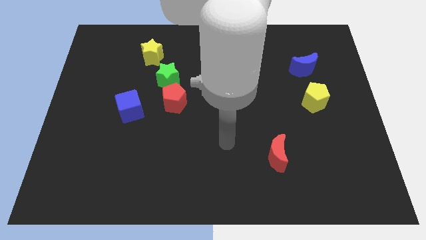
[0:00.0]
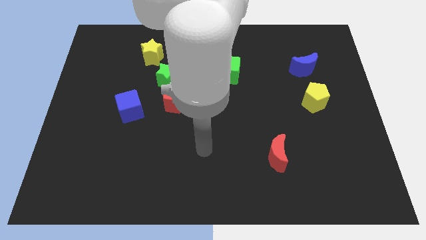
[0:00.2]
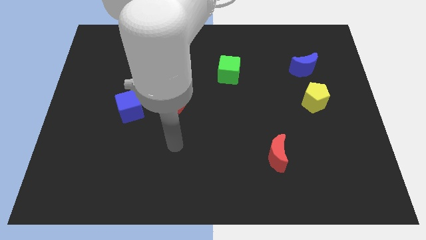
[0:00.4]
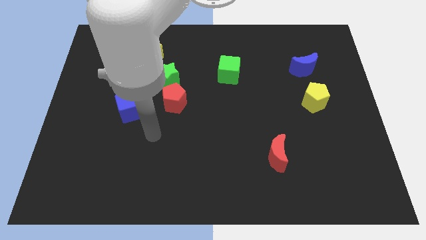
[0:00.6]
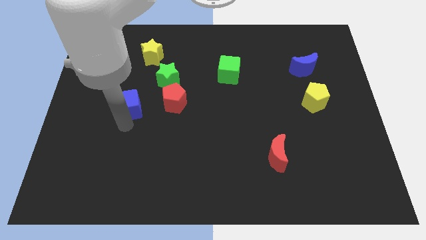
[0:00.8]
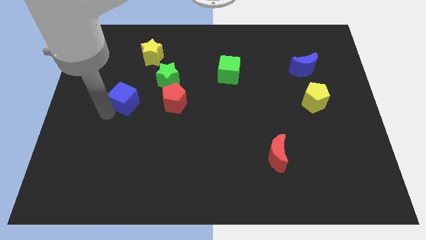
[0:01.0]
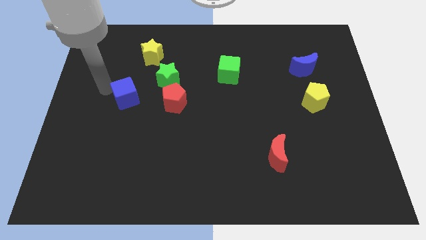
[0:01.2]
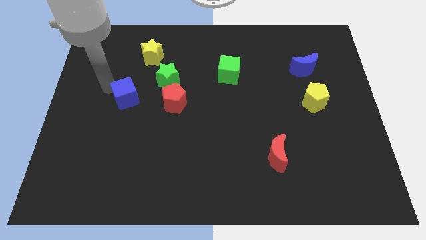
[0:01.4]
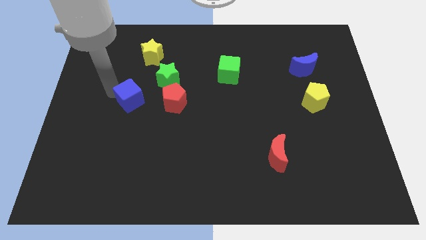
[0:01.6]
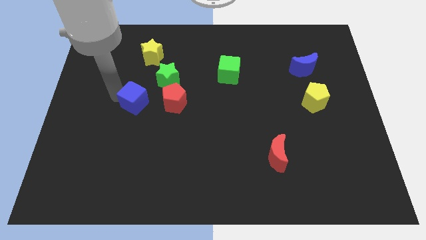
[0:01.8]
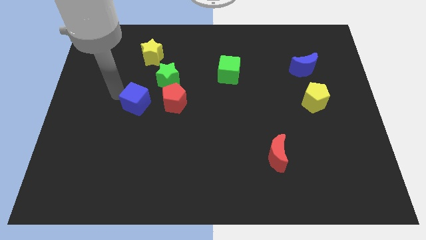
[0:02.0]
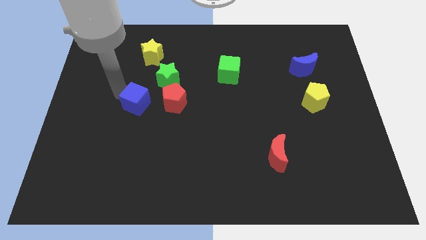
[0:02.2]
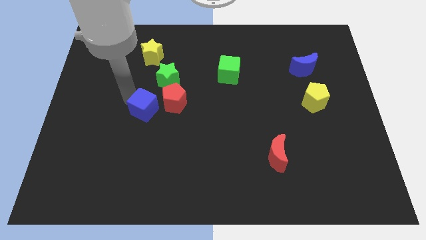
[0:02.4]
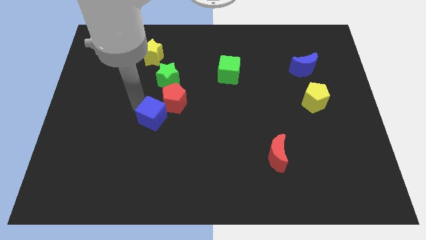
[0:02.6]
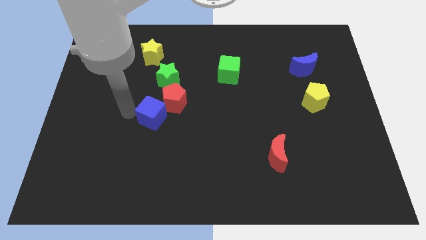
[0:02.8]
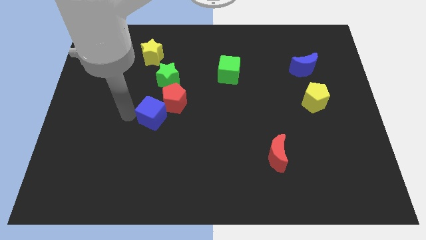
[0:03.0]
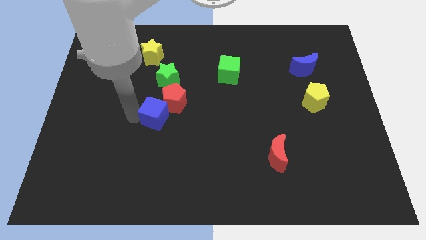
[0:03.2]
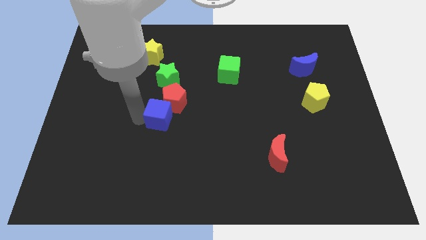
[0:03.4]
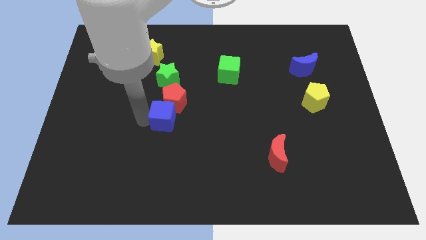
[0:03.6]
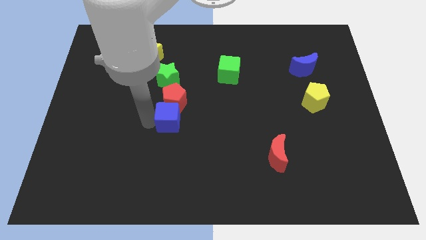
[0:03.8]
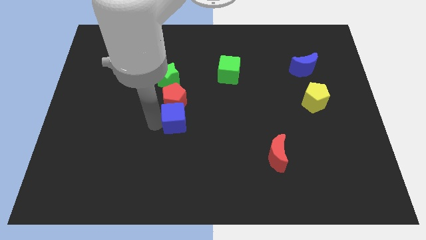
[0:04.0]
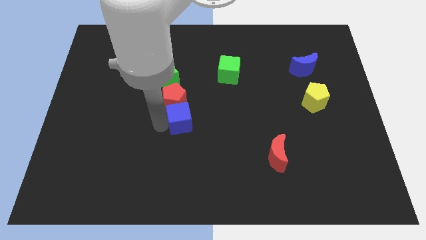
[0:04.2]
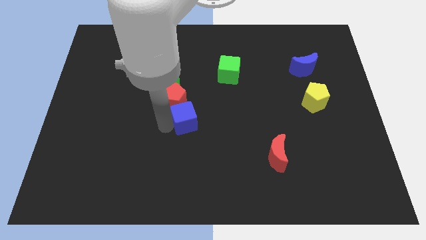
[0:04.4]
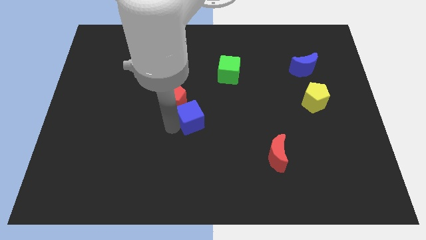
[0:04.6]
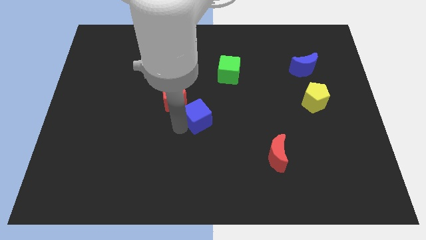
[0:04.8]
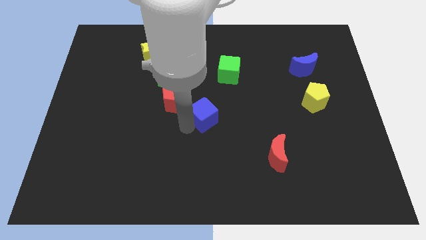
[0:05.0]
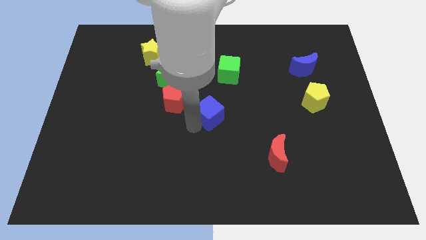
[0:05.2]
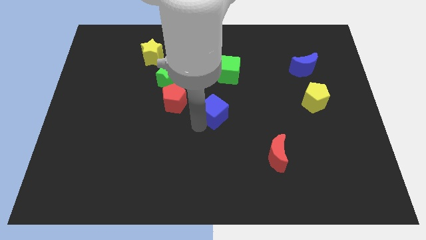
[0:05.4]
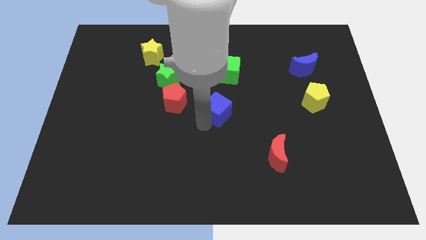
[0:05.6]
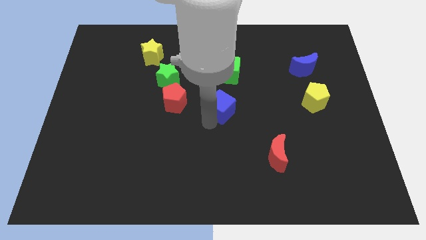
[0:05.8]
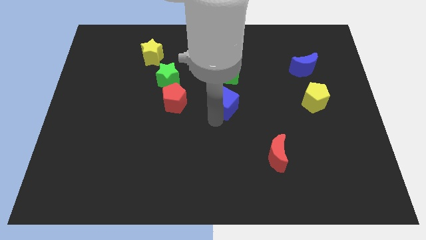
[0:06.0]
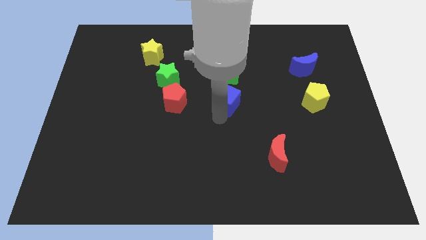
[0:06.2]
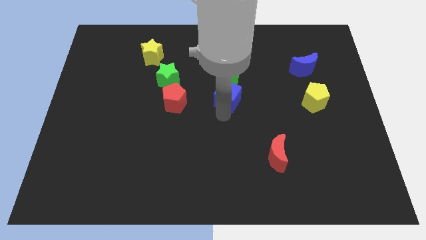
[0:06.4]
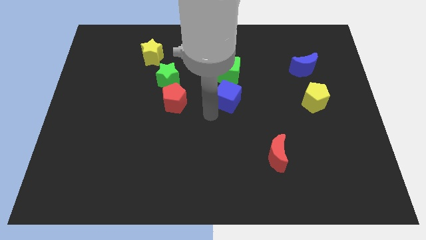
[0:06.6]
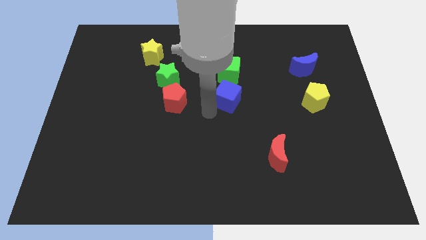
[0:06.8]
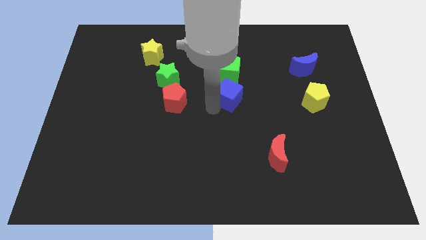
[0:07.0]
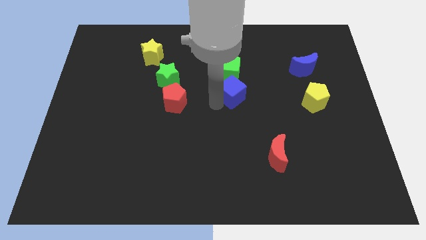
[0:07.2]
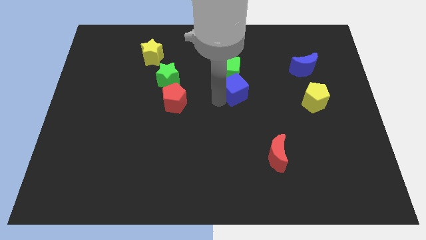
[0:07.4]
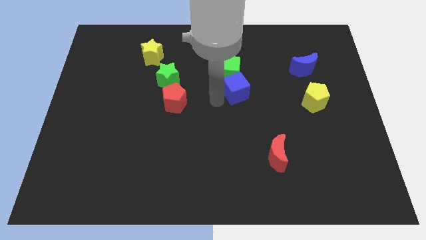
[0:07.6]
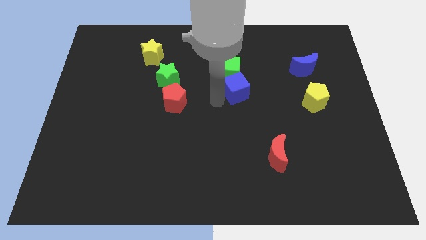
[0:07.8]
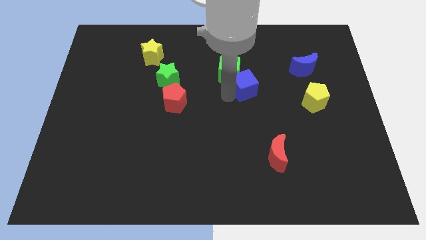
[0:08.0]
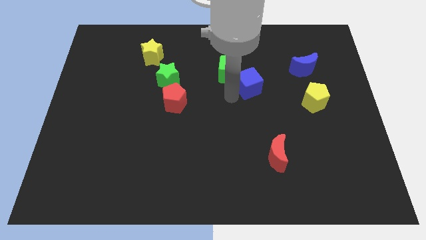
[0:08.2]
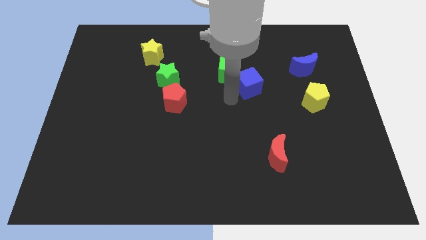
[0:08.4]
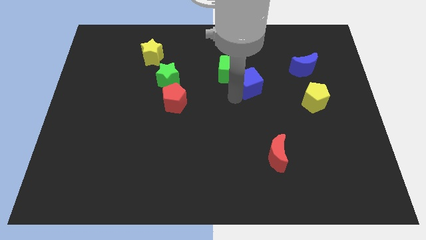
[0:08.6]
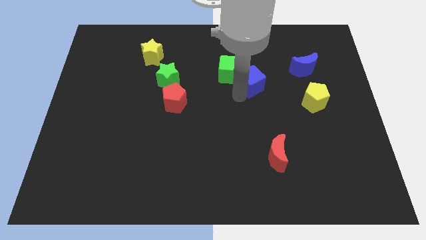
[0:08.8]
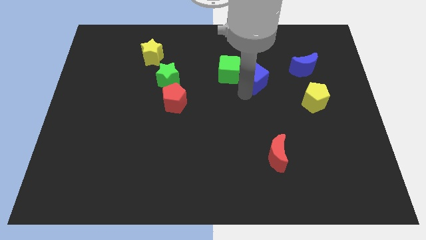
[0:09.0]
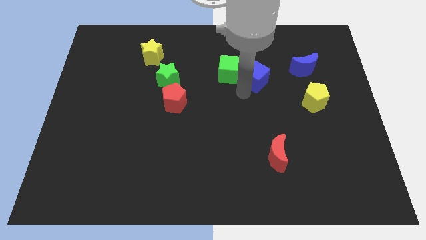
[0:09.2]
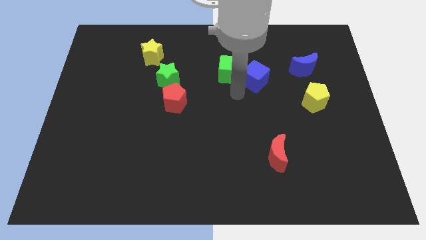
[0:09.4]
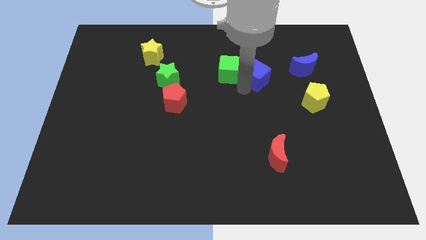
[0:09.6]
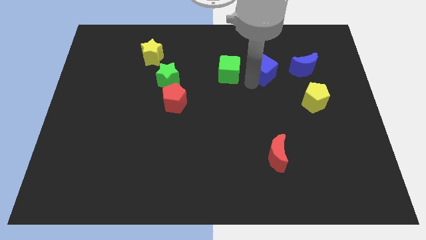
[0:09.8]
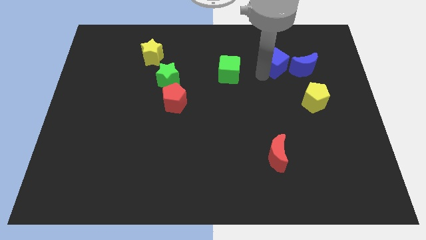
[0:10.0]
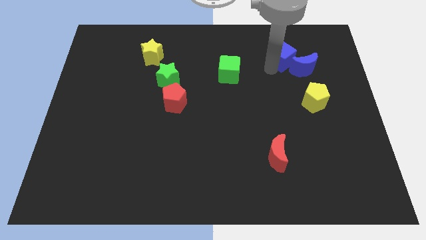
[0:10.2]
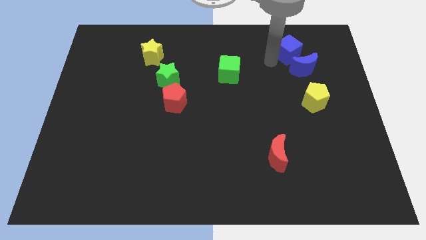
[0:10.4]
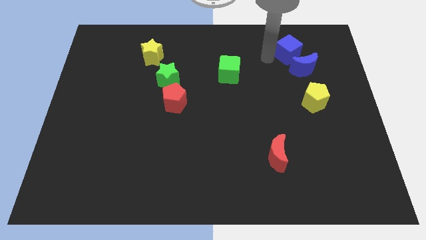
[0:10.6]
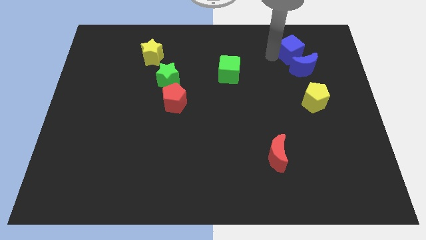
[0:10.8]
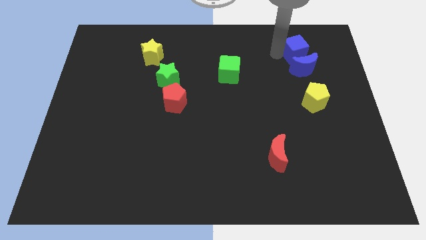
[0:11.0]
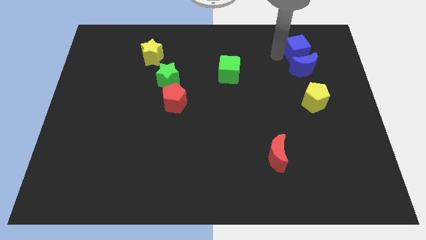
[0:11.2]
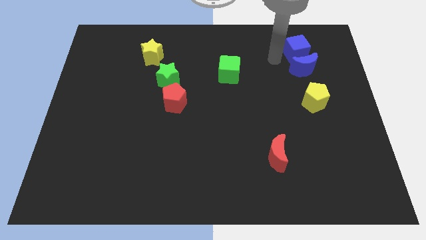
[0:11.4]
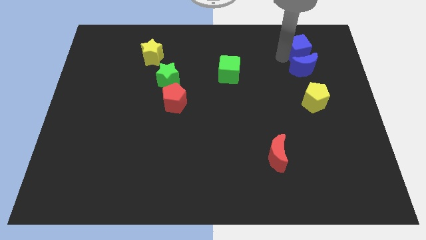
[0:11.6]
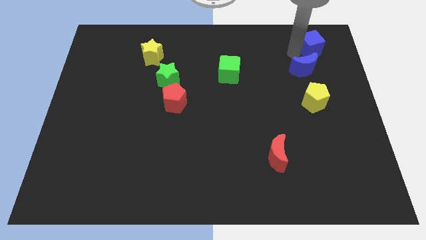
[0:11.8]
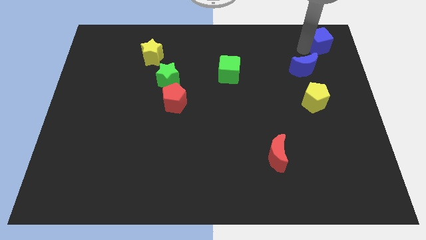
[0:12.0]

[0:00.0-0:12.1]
push the blue cube to the top right of the board
